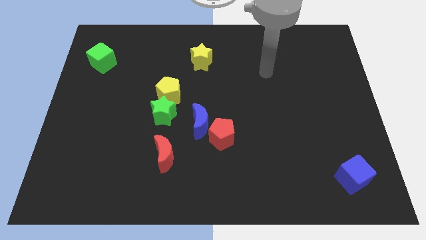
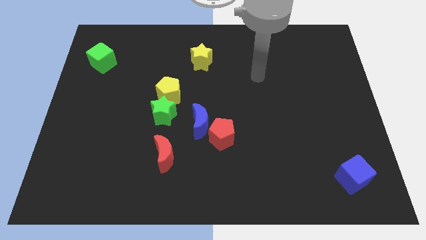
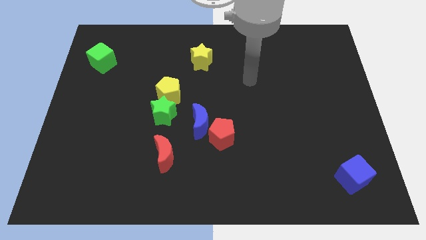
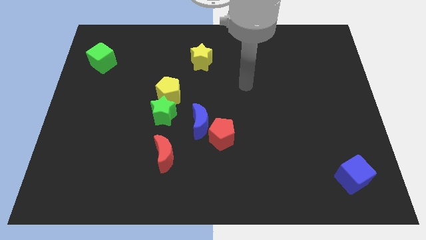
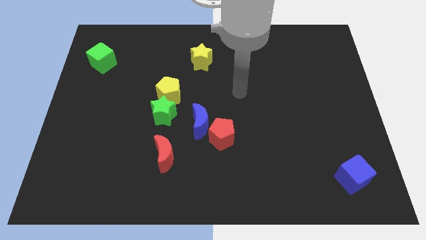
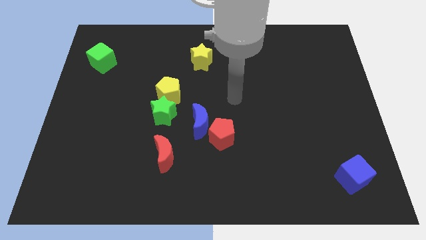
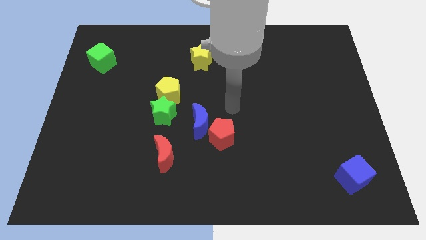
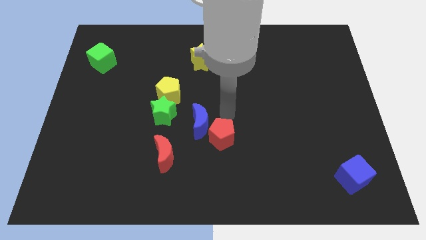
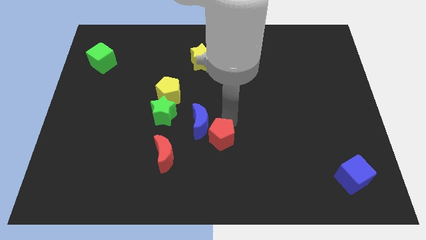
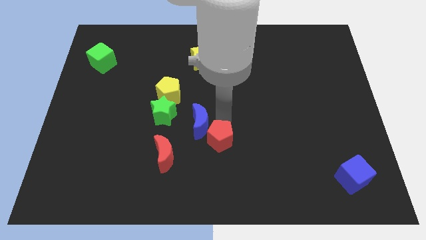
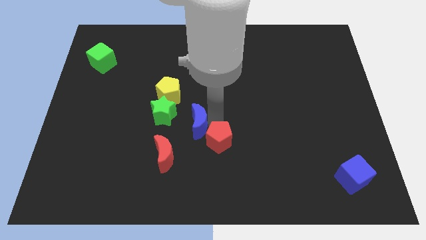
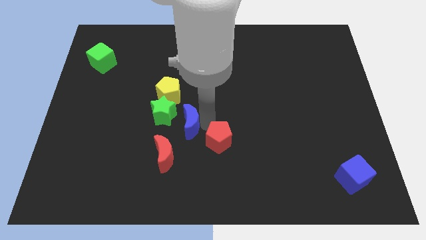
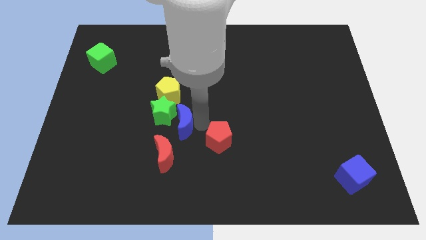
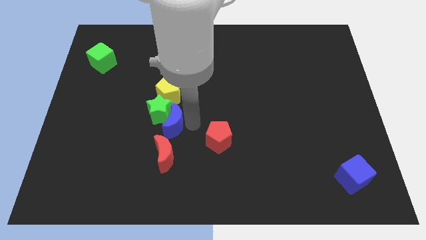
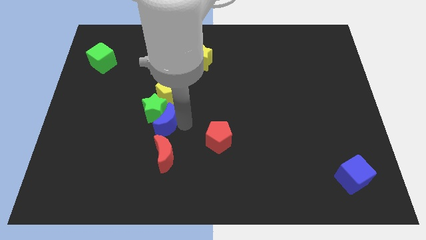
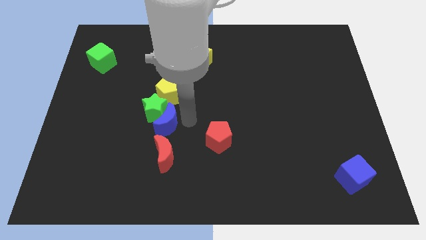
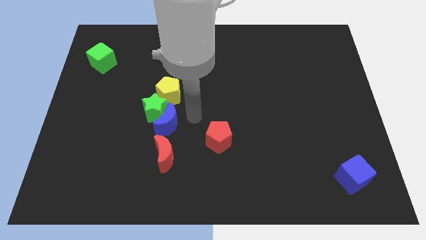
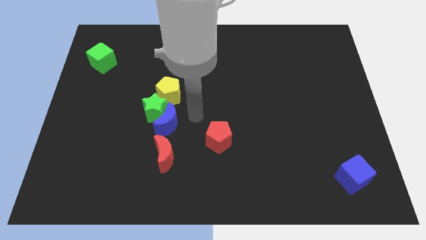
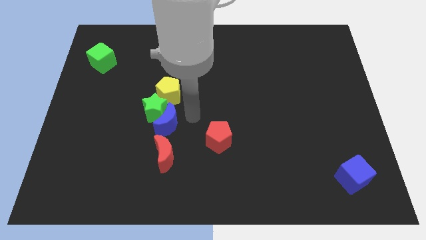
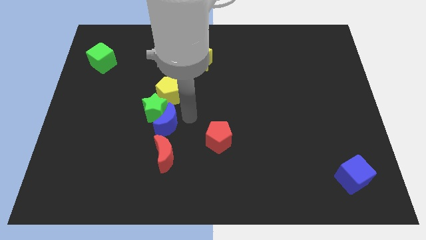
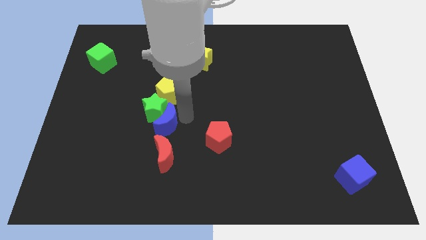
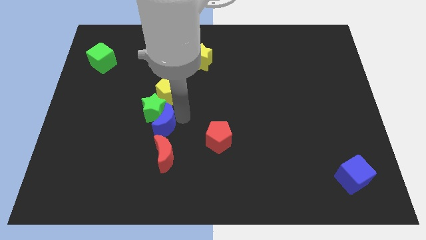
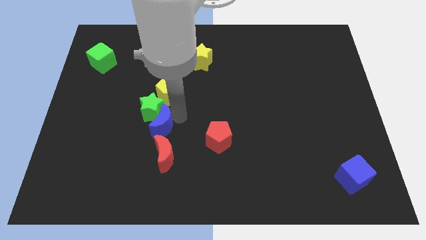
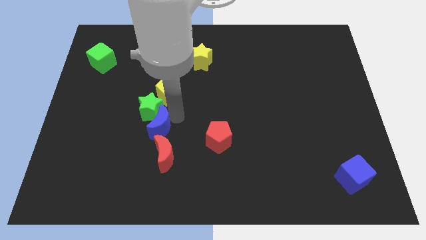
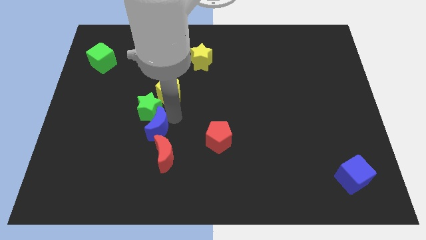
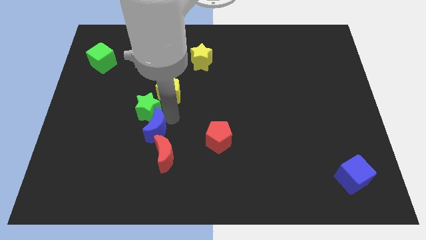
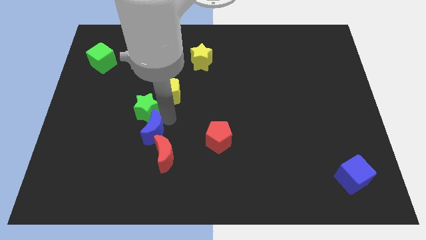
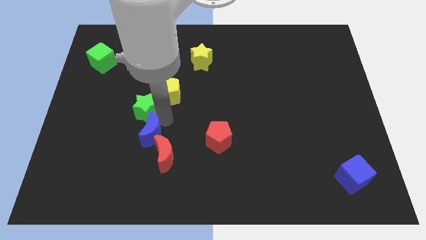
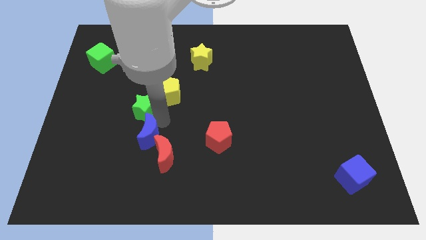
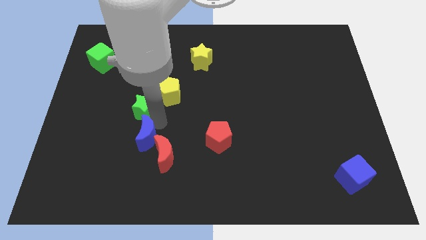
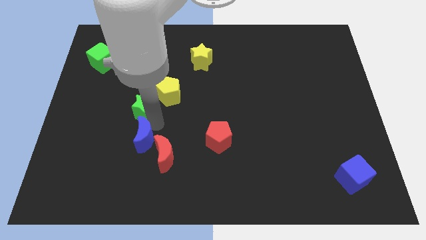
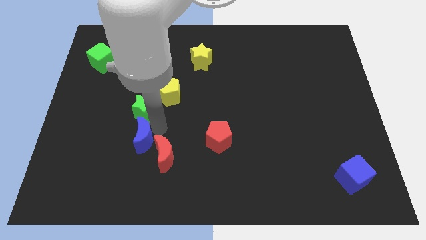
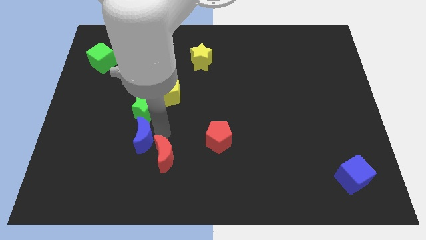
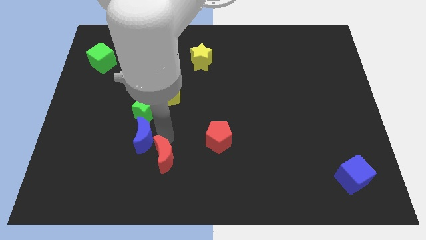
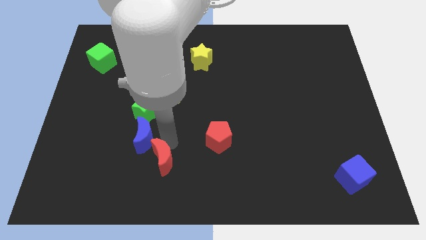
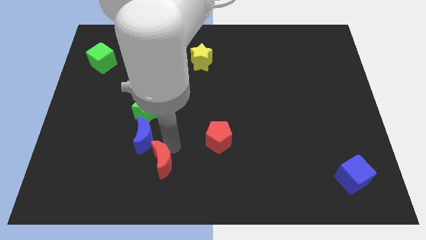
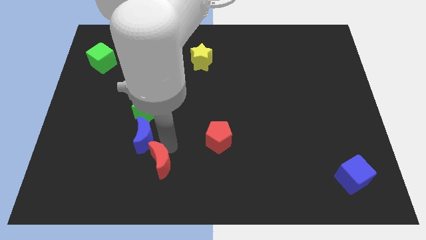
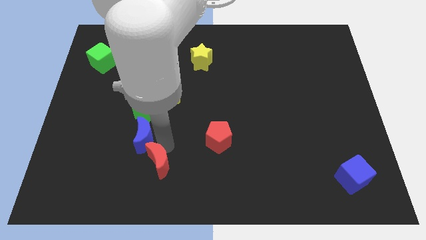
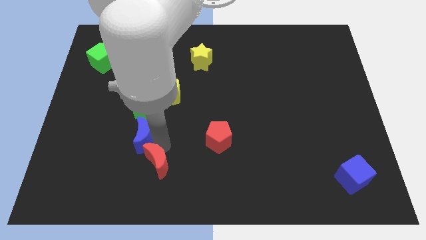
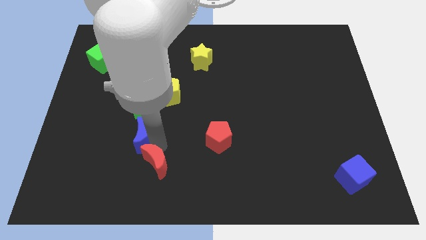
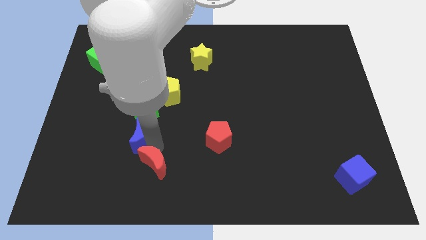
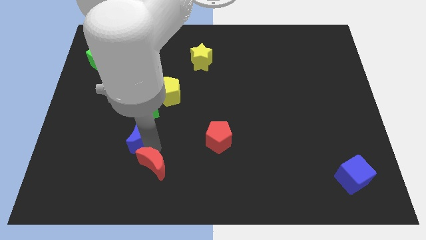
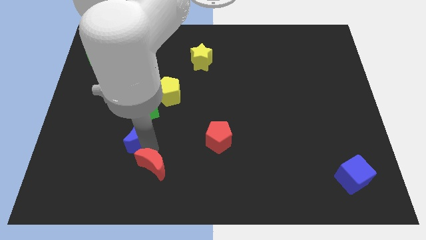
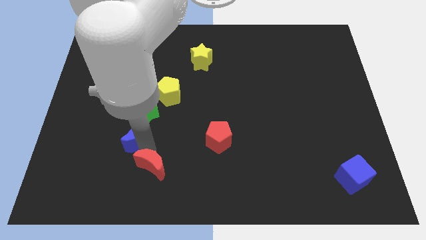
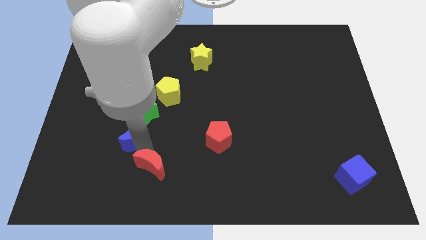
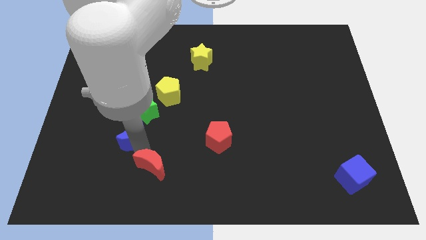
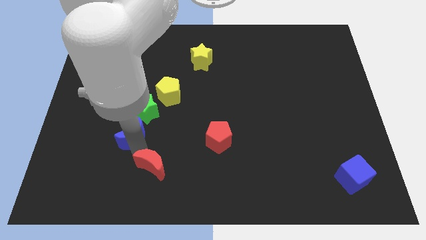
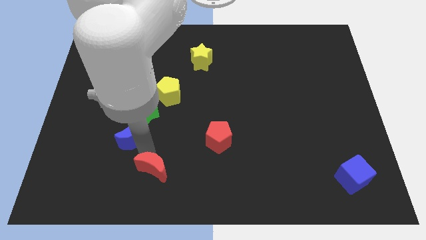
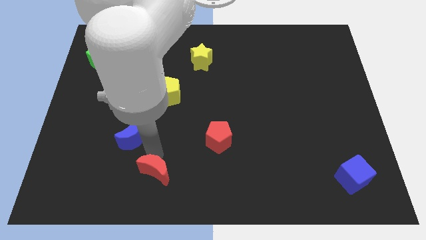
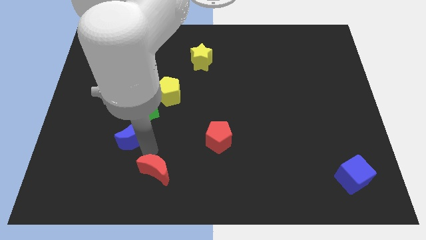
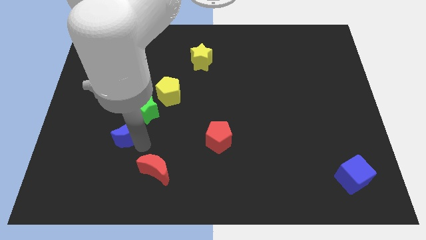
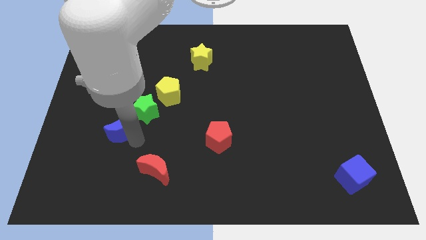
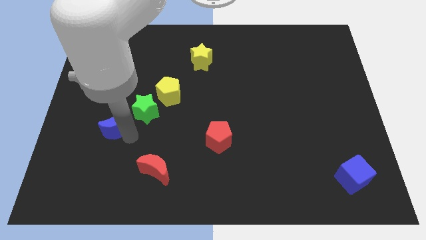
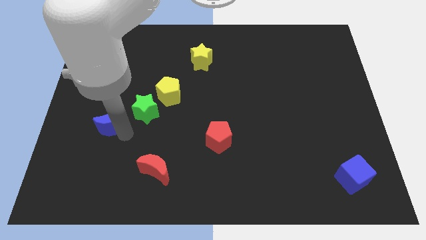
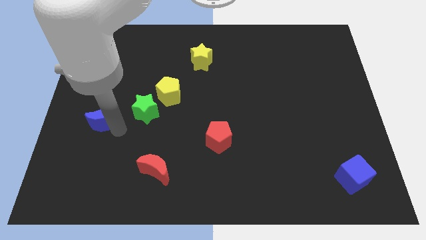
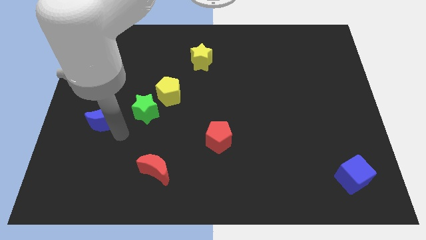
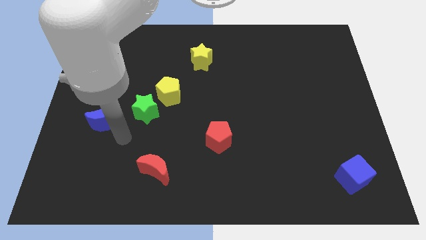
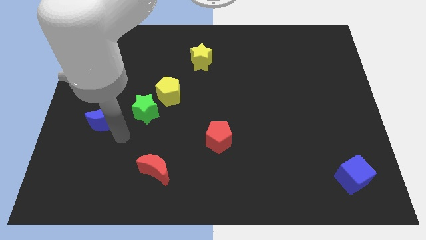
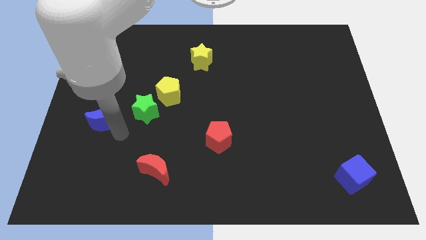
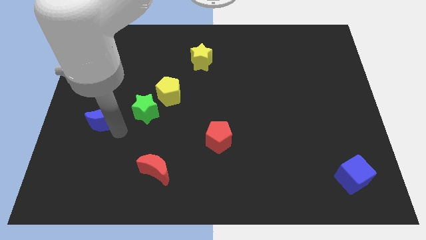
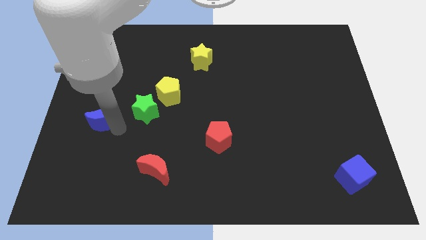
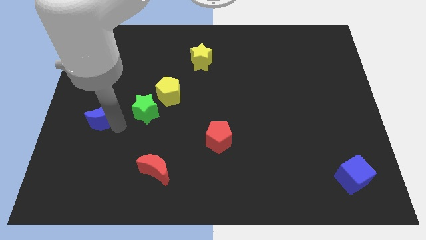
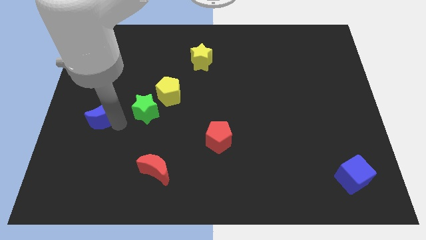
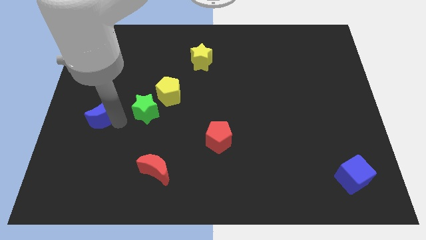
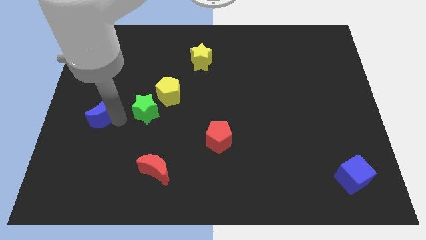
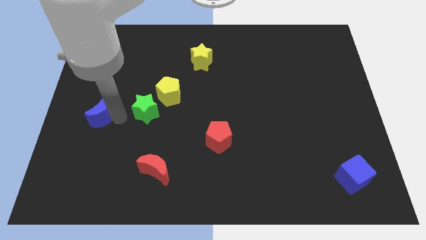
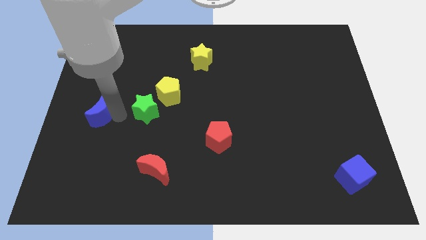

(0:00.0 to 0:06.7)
slide the blue moon to the center left
